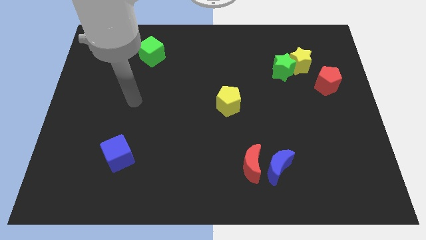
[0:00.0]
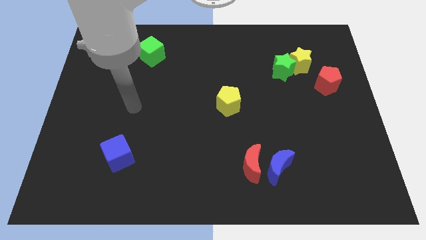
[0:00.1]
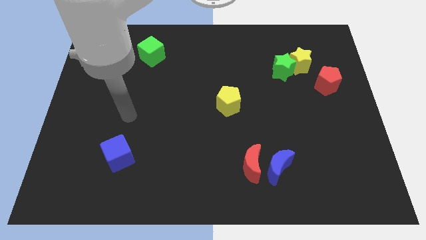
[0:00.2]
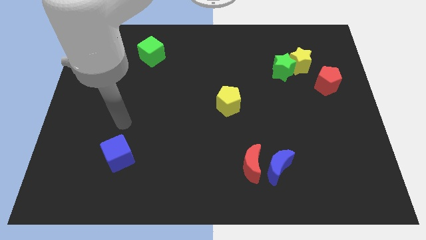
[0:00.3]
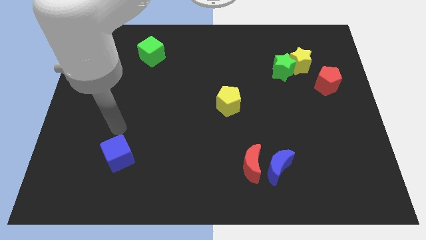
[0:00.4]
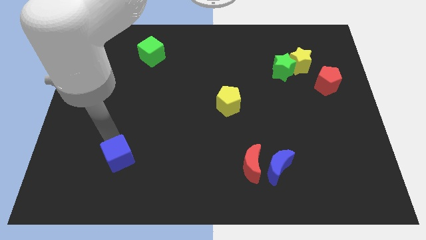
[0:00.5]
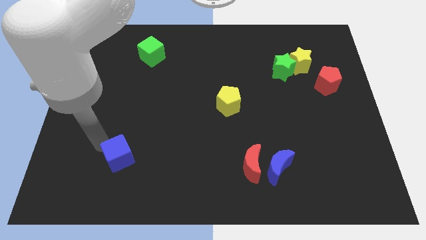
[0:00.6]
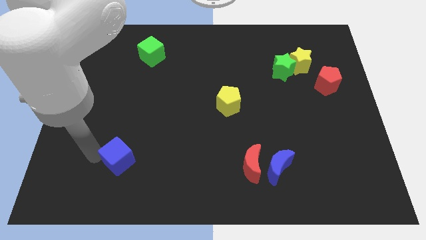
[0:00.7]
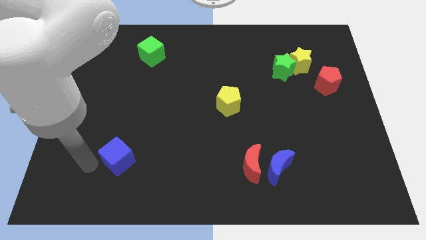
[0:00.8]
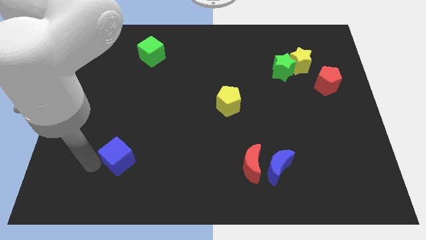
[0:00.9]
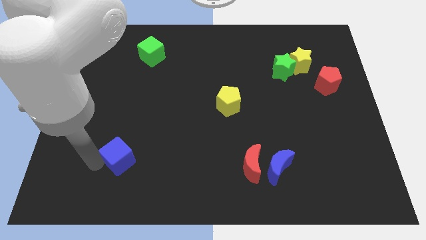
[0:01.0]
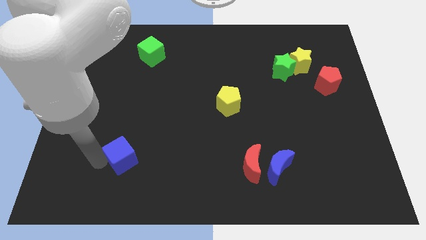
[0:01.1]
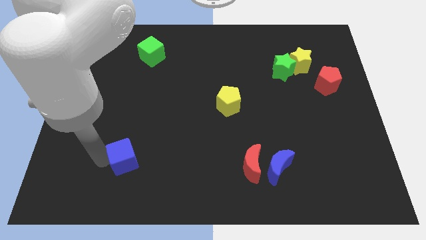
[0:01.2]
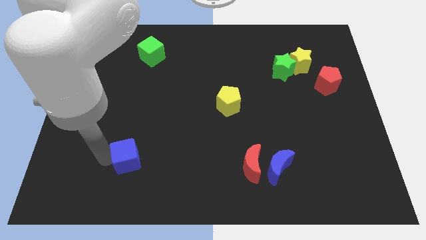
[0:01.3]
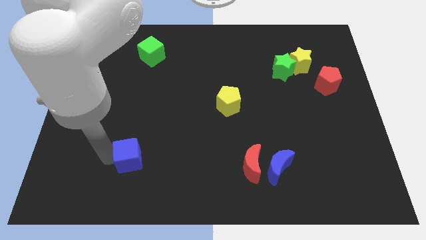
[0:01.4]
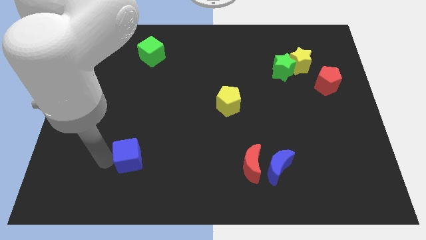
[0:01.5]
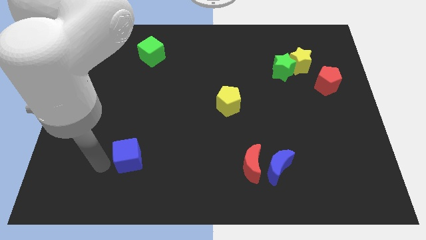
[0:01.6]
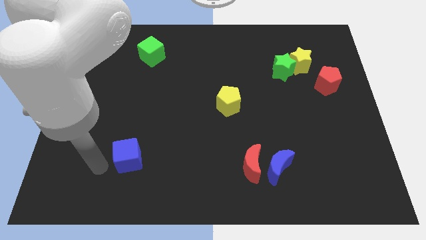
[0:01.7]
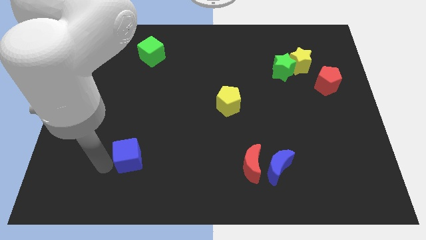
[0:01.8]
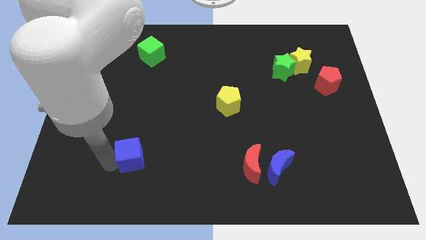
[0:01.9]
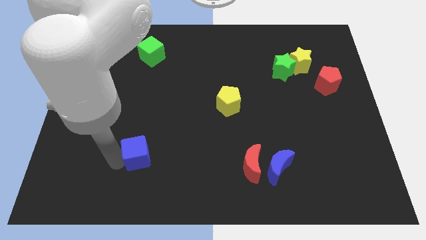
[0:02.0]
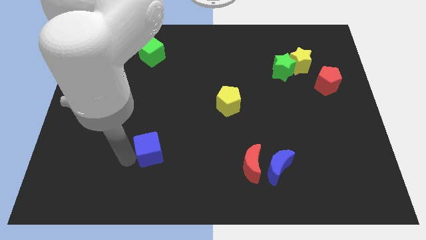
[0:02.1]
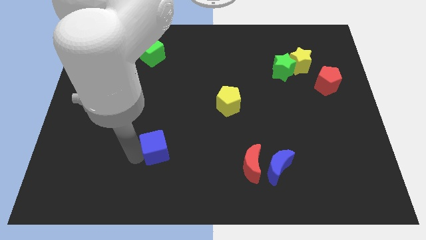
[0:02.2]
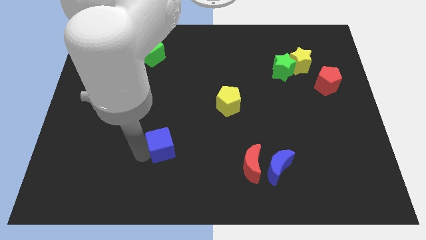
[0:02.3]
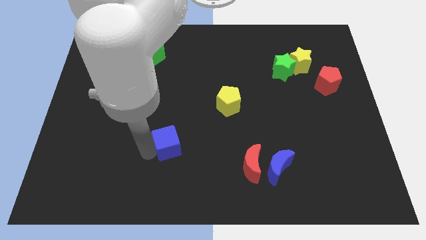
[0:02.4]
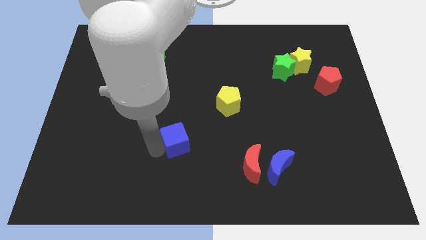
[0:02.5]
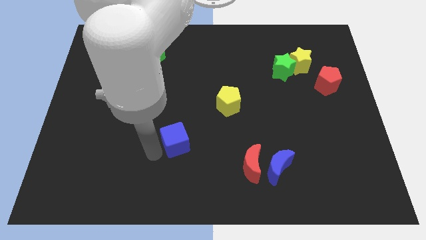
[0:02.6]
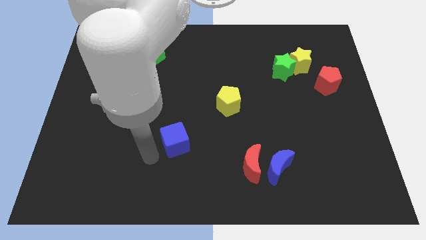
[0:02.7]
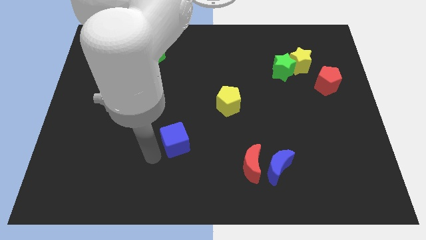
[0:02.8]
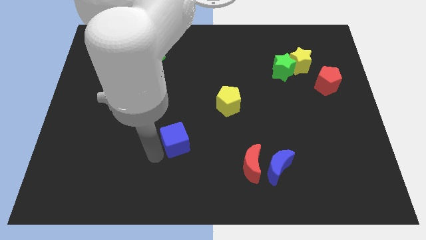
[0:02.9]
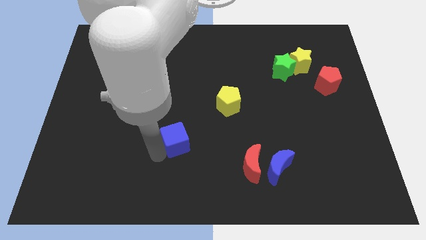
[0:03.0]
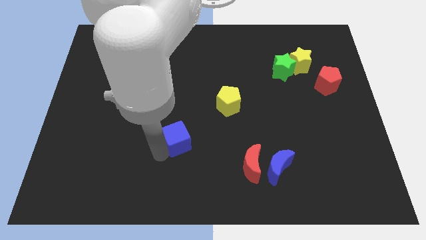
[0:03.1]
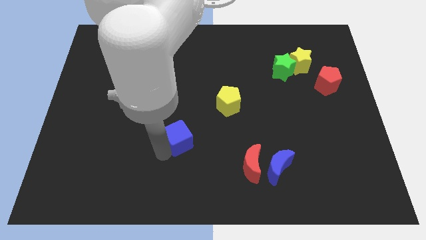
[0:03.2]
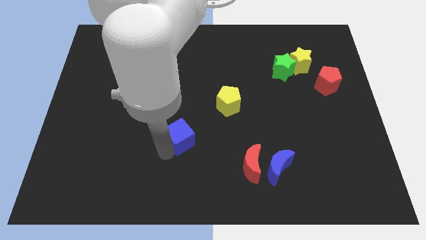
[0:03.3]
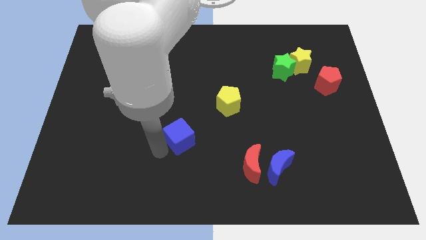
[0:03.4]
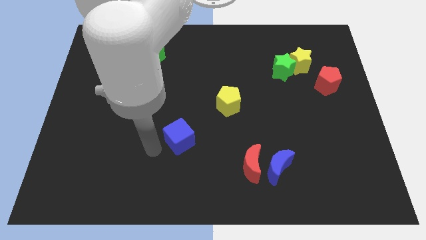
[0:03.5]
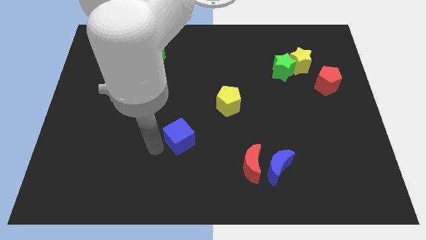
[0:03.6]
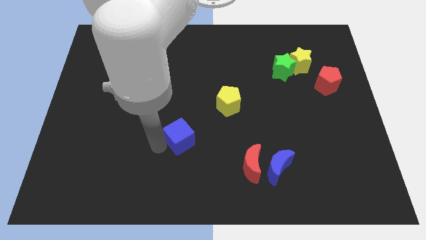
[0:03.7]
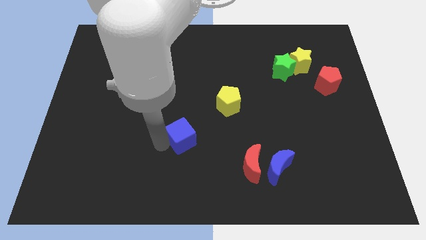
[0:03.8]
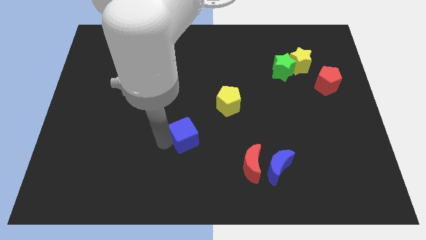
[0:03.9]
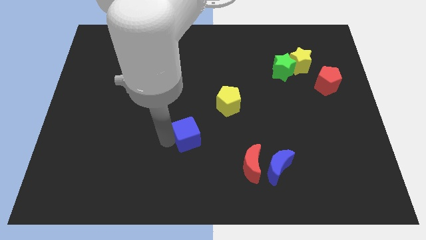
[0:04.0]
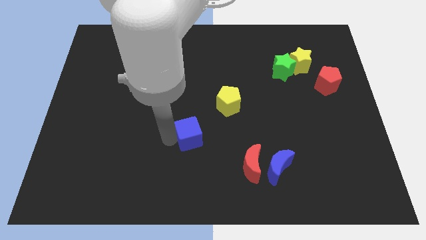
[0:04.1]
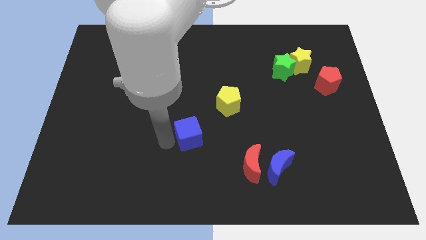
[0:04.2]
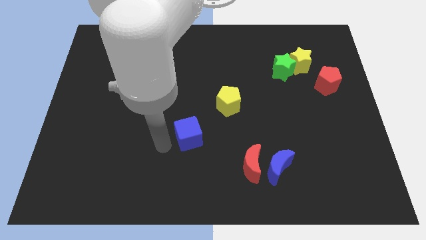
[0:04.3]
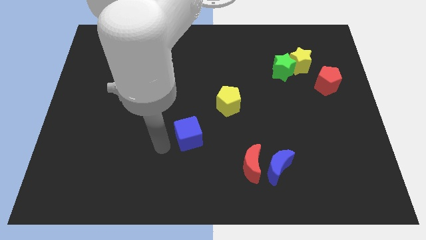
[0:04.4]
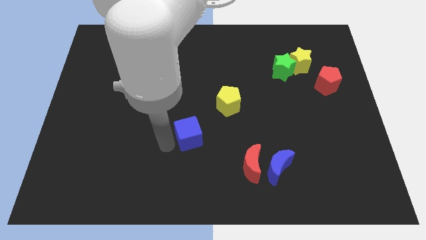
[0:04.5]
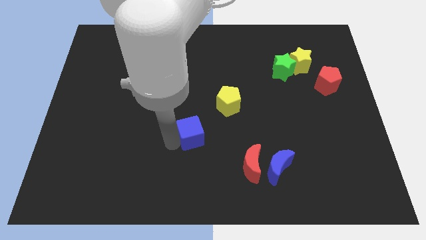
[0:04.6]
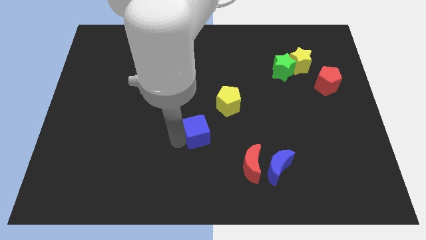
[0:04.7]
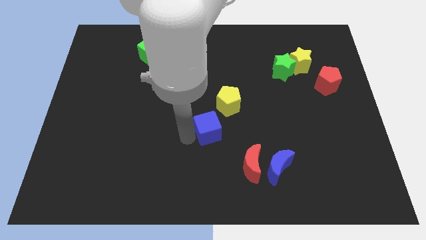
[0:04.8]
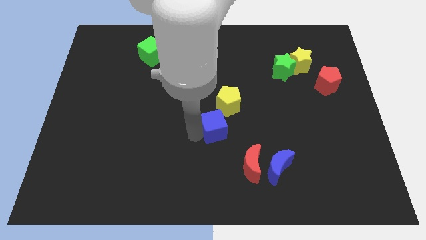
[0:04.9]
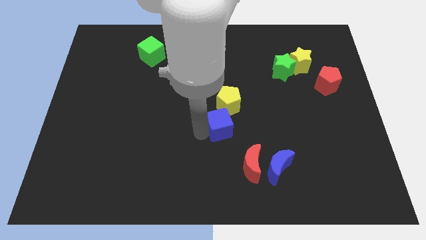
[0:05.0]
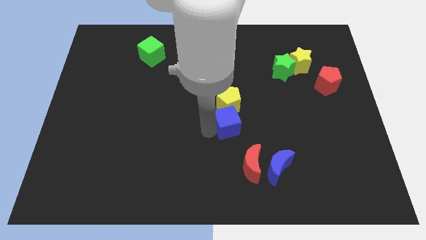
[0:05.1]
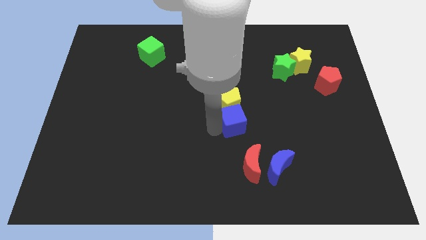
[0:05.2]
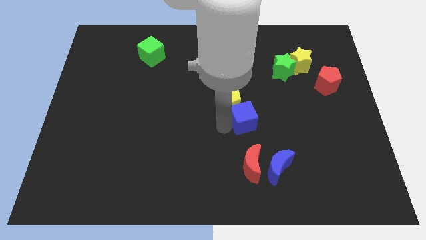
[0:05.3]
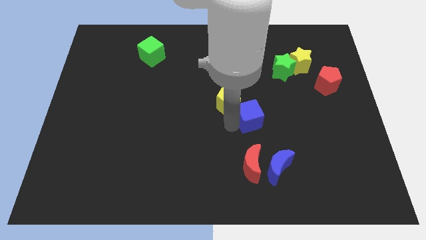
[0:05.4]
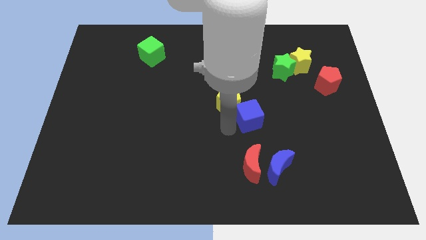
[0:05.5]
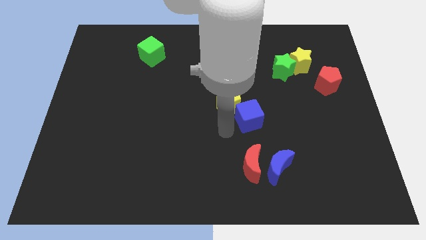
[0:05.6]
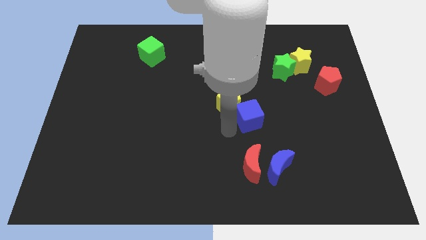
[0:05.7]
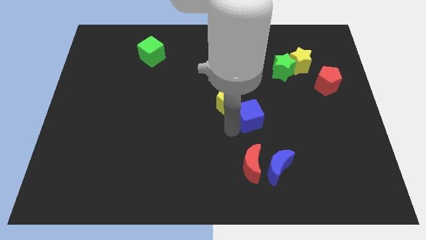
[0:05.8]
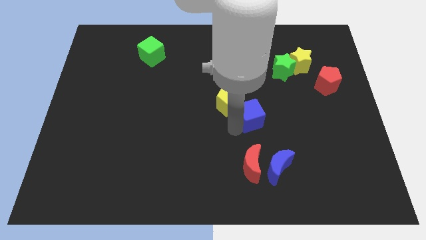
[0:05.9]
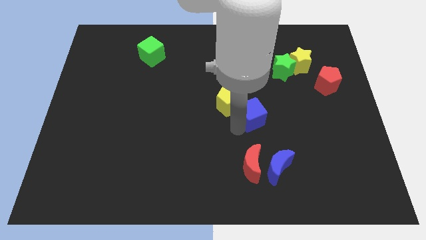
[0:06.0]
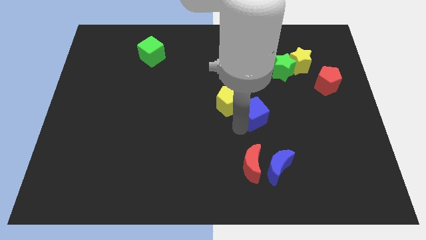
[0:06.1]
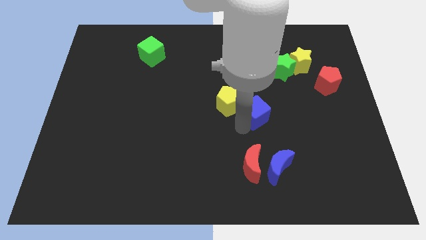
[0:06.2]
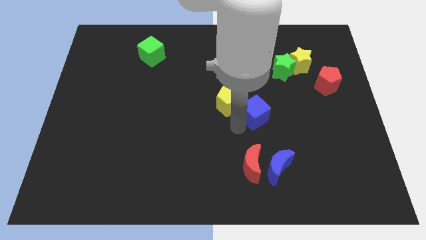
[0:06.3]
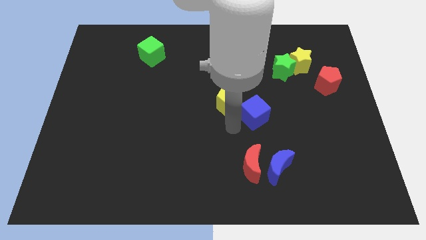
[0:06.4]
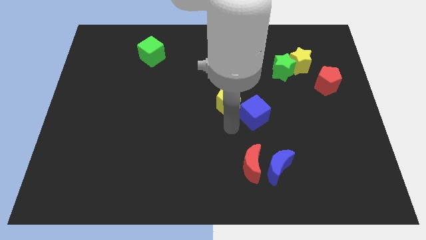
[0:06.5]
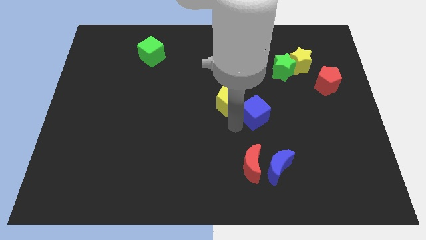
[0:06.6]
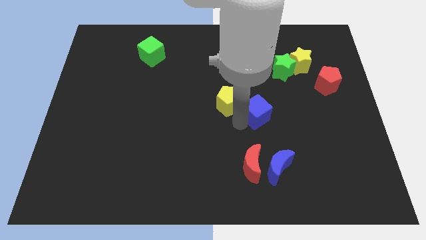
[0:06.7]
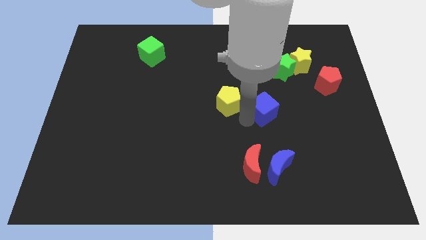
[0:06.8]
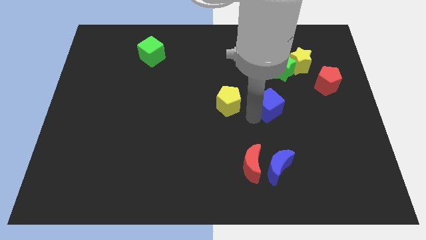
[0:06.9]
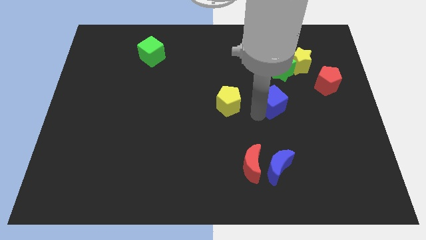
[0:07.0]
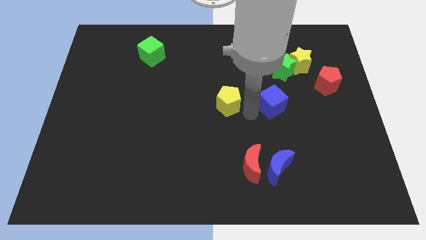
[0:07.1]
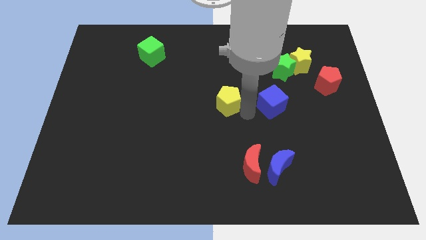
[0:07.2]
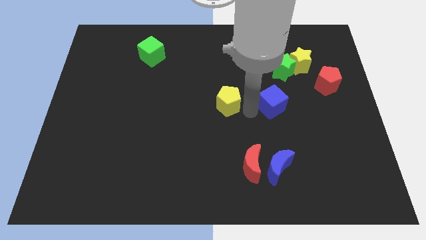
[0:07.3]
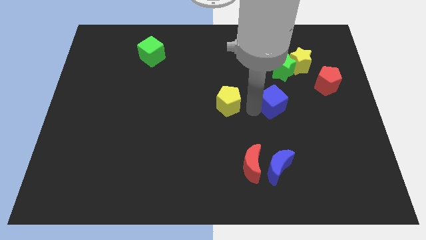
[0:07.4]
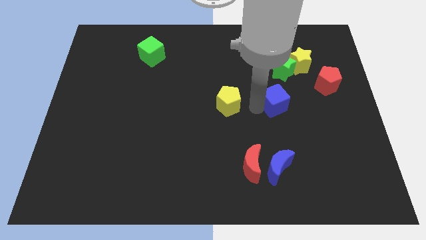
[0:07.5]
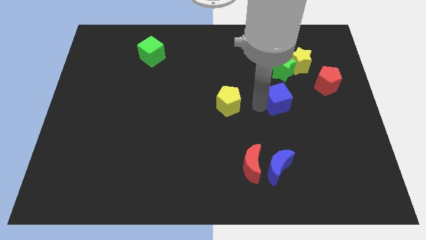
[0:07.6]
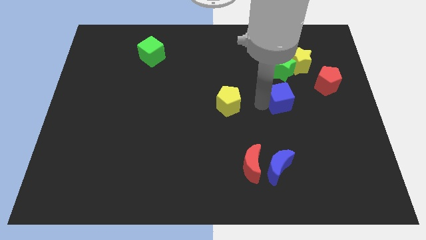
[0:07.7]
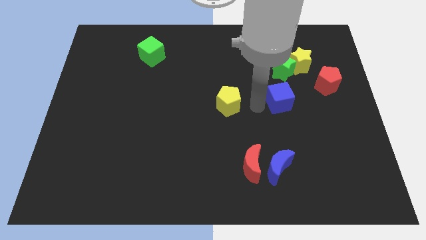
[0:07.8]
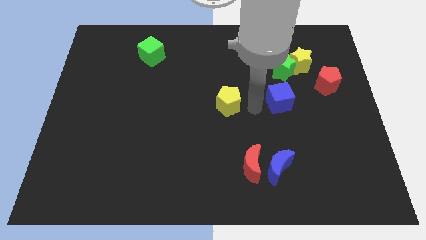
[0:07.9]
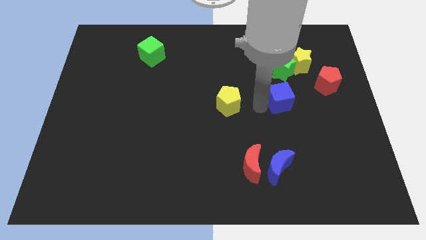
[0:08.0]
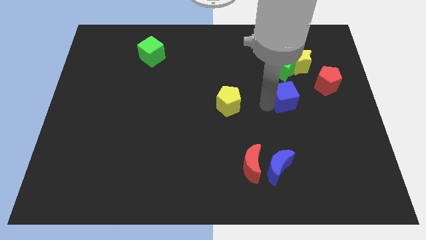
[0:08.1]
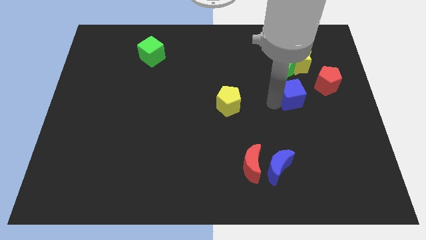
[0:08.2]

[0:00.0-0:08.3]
move the blue cube below the yellow star
